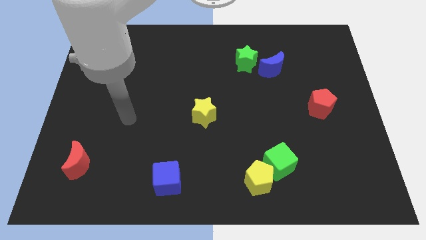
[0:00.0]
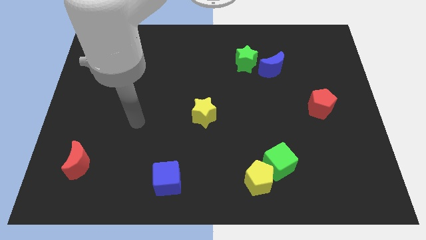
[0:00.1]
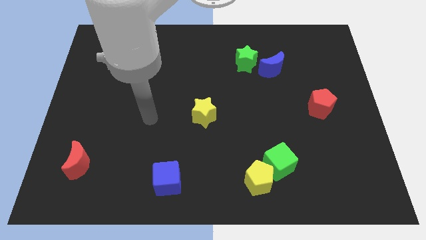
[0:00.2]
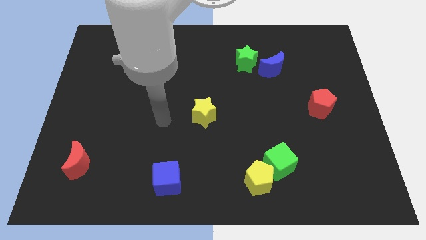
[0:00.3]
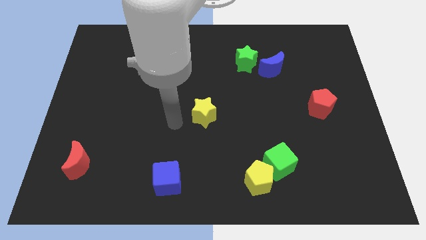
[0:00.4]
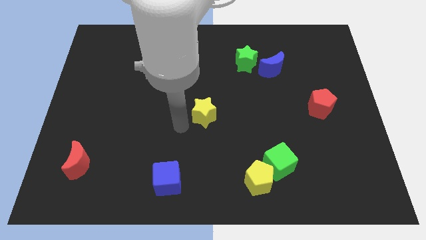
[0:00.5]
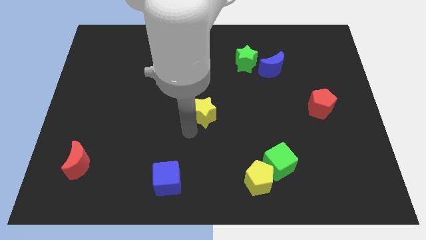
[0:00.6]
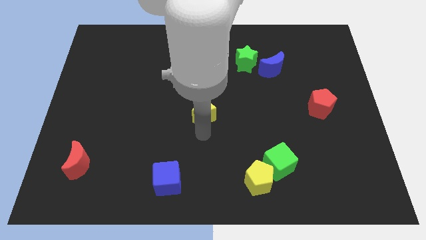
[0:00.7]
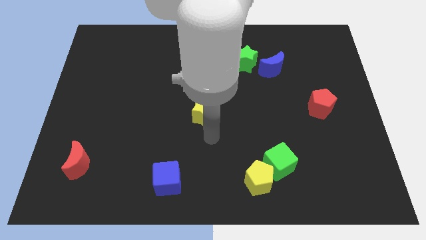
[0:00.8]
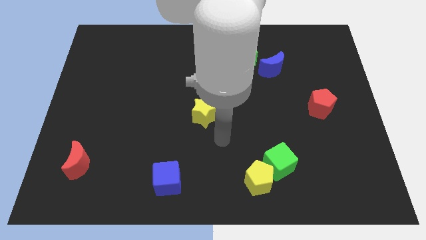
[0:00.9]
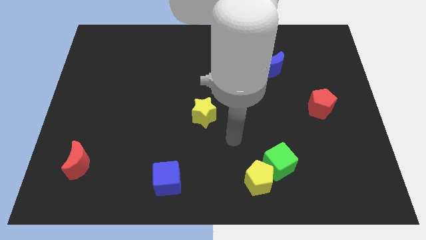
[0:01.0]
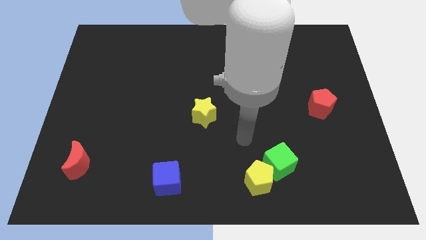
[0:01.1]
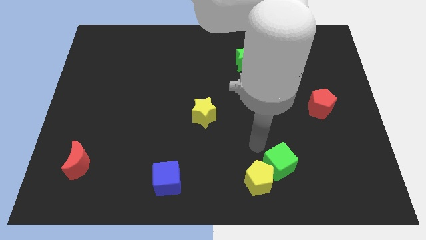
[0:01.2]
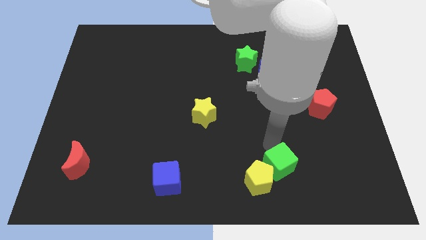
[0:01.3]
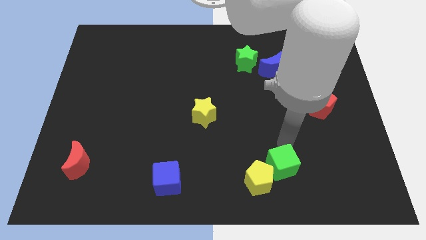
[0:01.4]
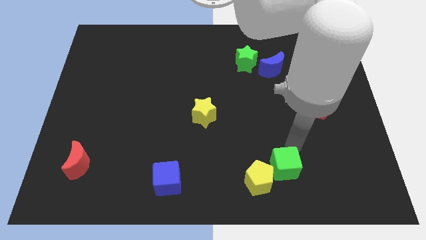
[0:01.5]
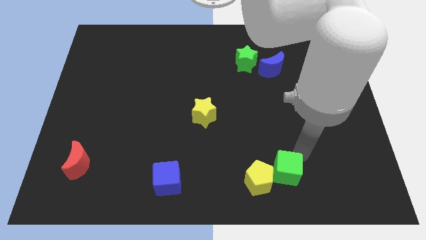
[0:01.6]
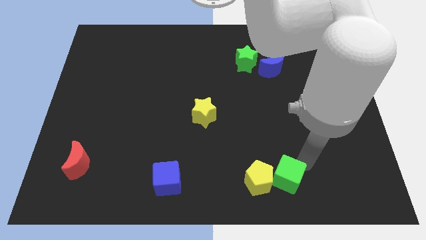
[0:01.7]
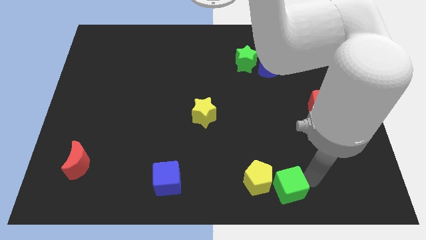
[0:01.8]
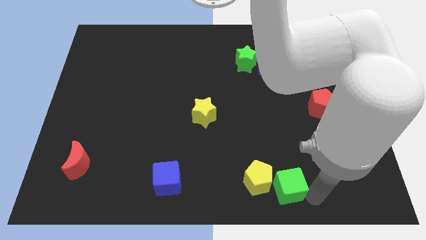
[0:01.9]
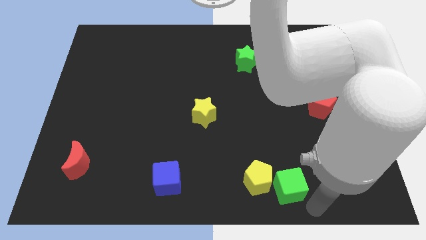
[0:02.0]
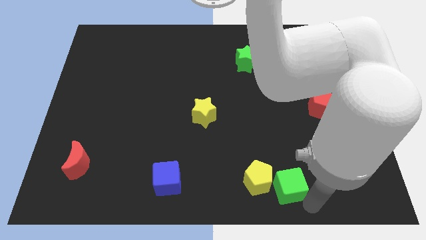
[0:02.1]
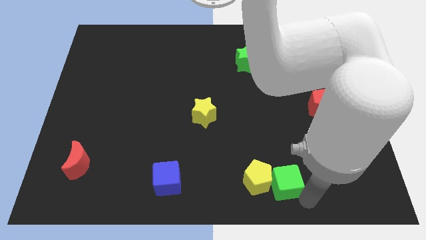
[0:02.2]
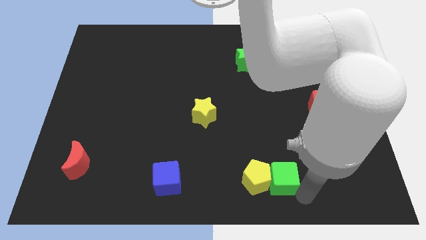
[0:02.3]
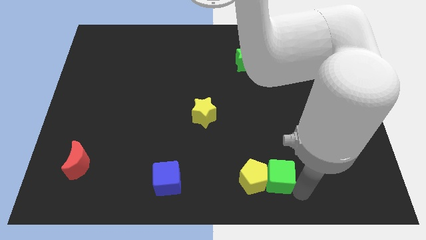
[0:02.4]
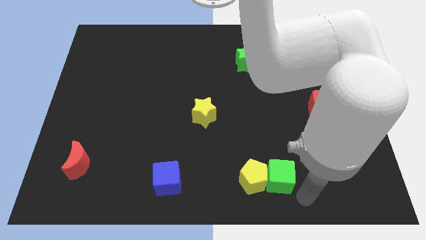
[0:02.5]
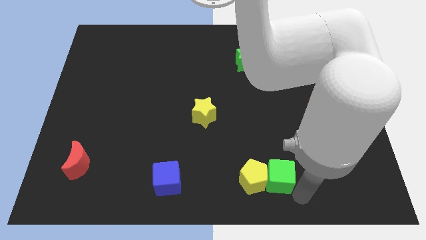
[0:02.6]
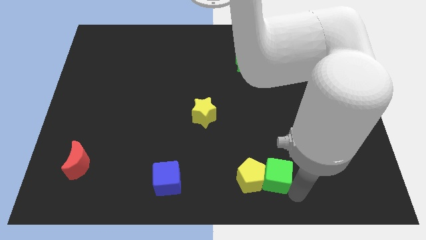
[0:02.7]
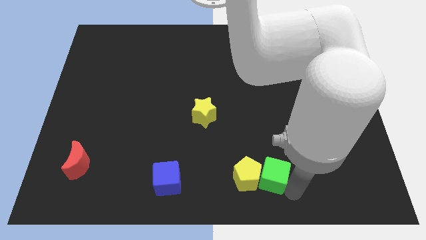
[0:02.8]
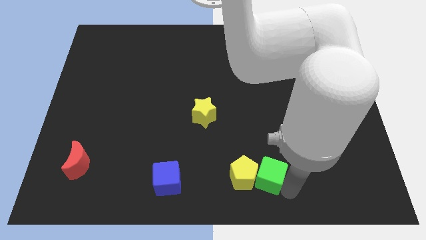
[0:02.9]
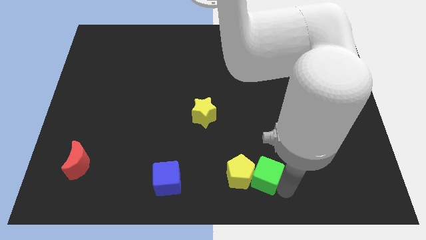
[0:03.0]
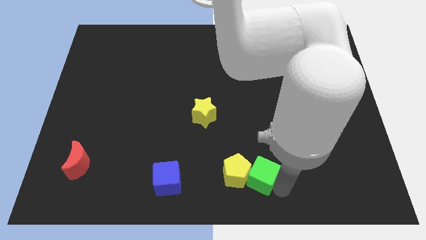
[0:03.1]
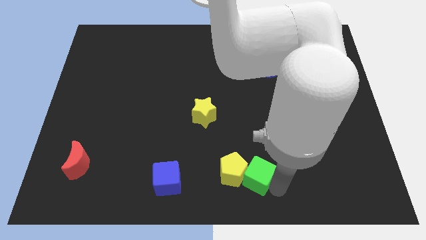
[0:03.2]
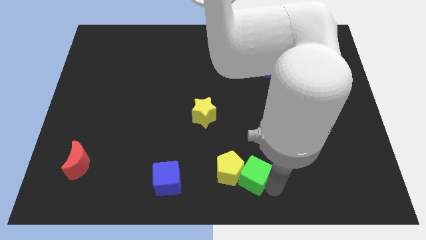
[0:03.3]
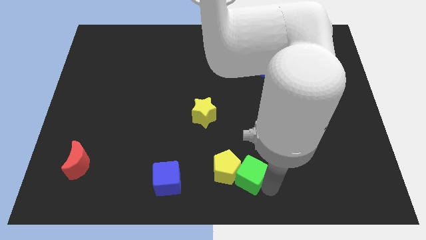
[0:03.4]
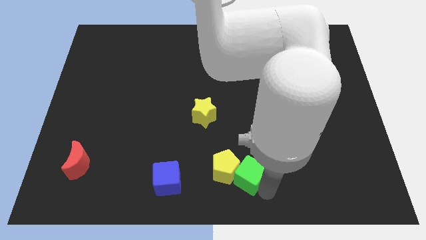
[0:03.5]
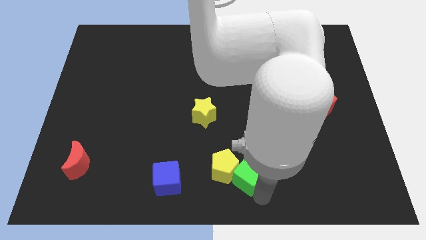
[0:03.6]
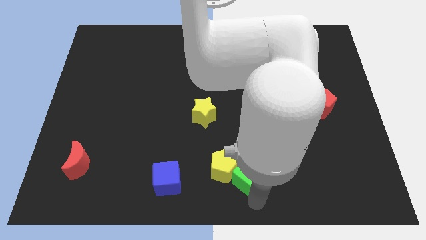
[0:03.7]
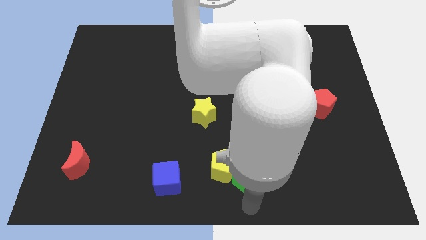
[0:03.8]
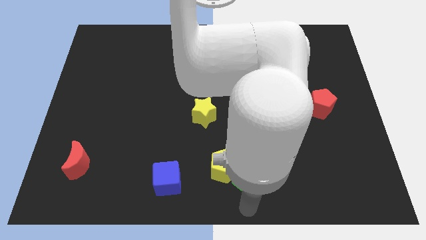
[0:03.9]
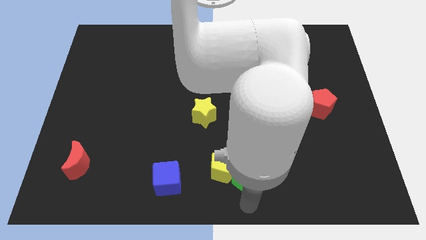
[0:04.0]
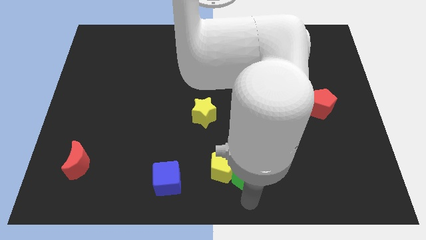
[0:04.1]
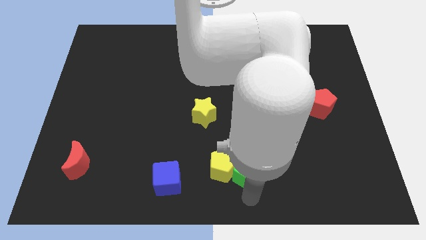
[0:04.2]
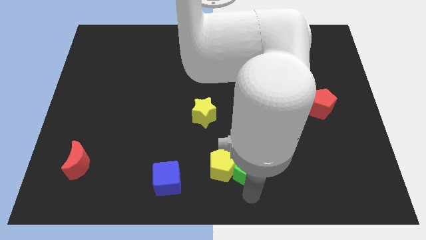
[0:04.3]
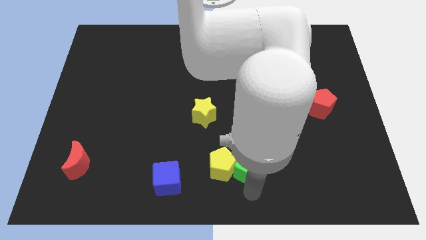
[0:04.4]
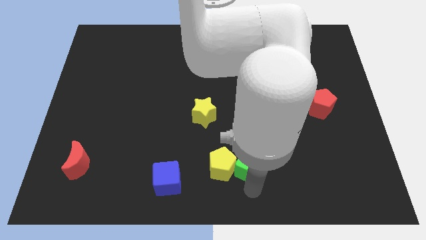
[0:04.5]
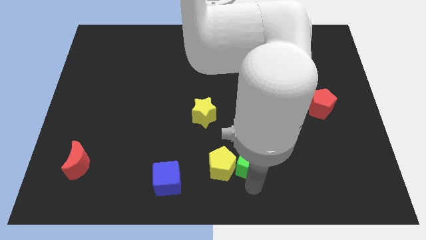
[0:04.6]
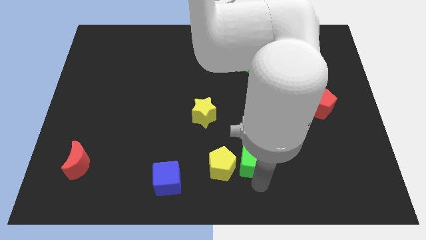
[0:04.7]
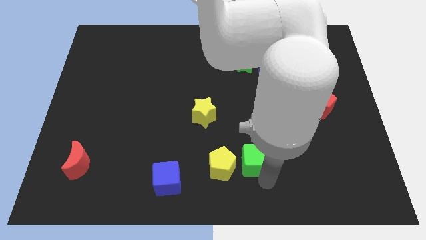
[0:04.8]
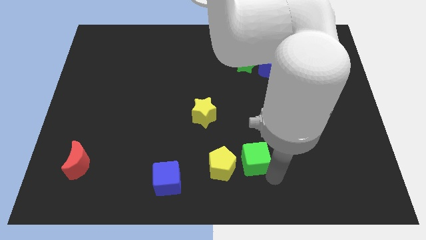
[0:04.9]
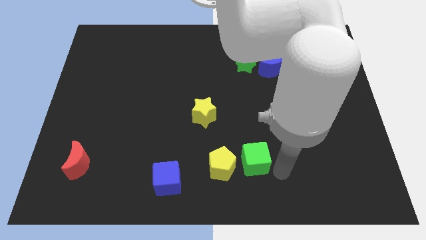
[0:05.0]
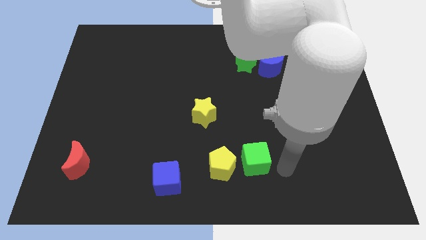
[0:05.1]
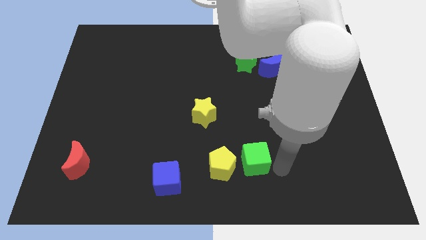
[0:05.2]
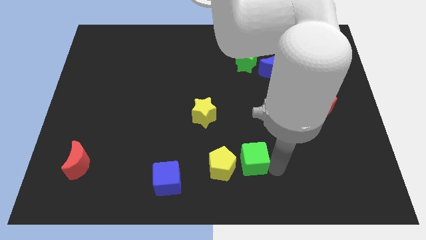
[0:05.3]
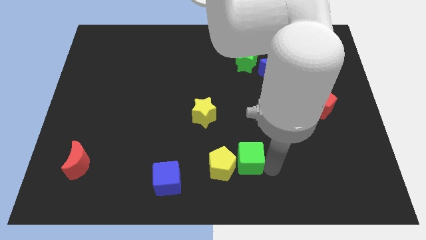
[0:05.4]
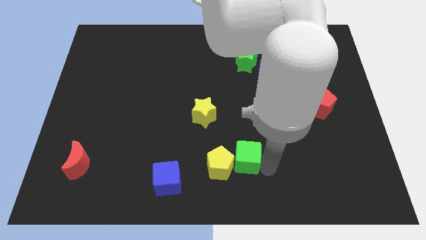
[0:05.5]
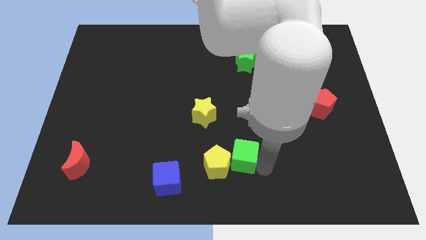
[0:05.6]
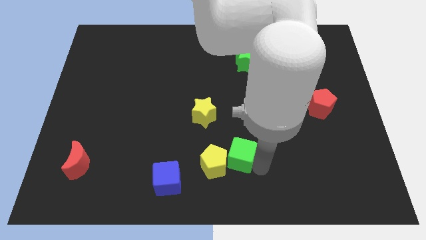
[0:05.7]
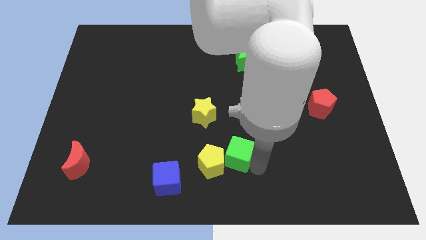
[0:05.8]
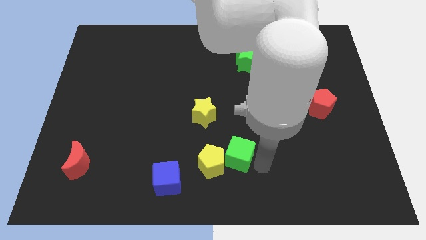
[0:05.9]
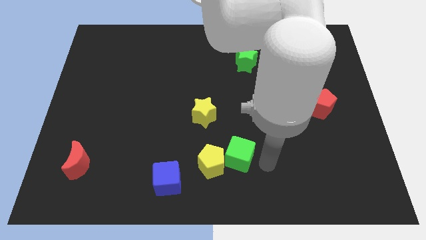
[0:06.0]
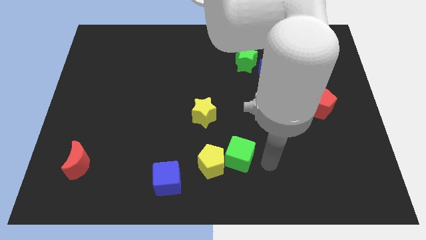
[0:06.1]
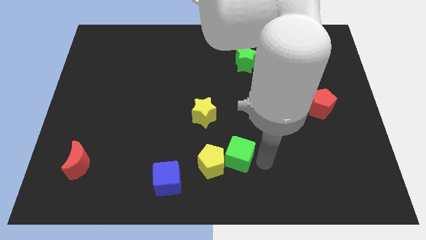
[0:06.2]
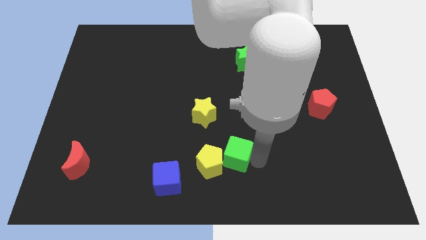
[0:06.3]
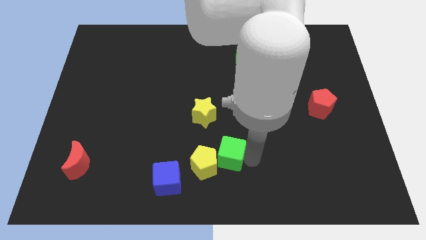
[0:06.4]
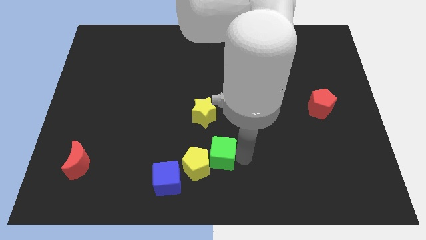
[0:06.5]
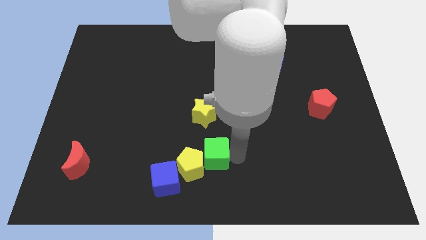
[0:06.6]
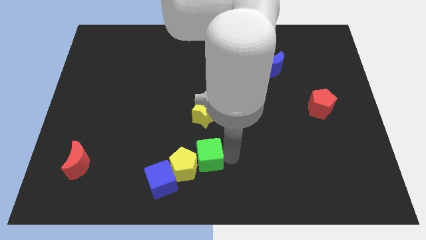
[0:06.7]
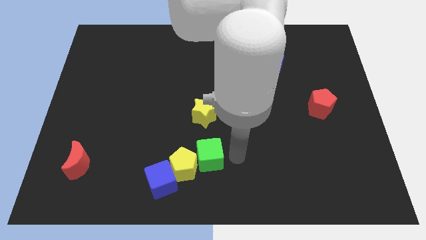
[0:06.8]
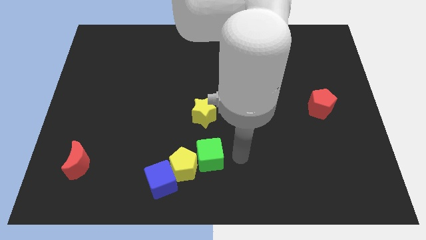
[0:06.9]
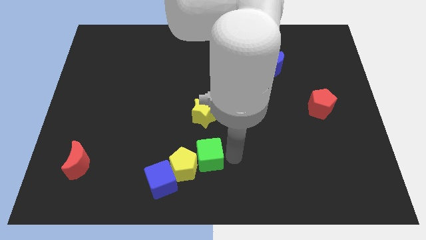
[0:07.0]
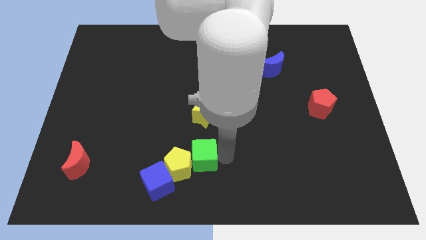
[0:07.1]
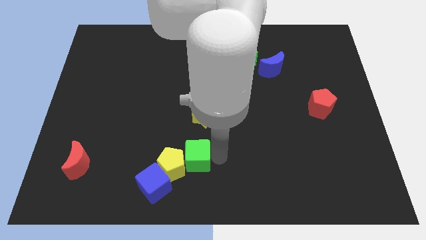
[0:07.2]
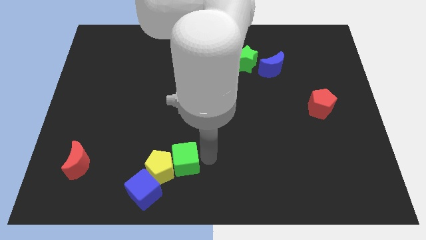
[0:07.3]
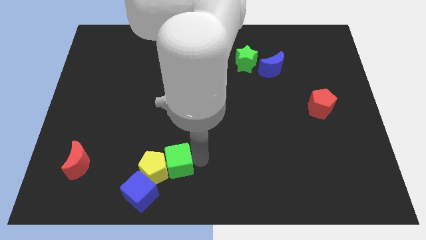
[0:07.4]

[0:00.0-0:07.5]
slide the green cube left

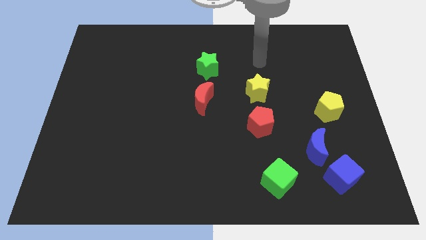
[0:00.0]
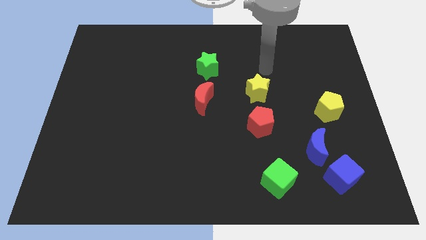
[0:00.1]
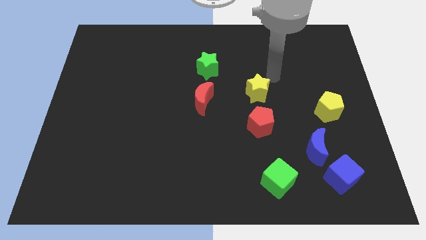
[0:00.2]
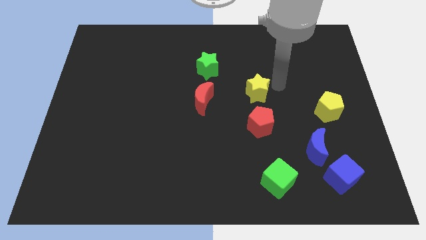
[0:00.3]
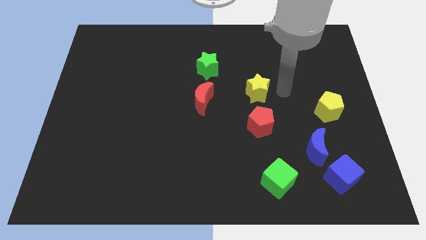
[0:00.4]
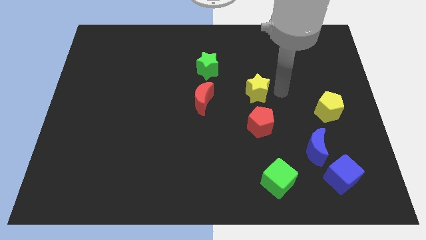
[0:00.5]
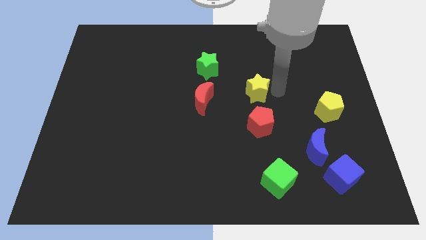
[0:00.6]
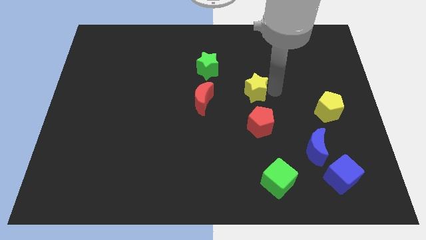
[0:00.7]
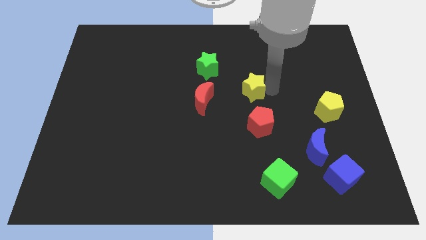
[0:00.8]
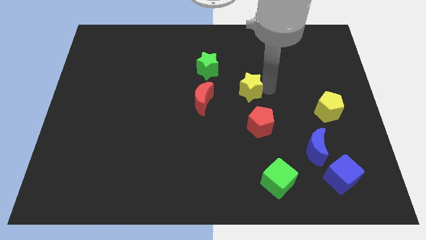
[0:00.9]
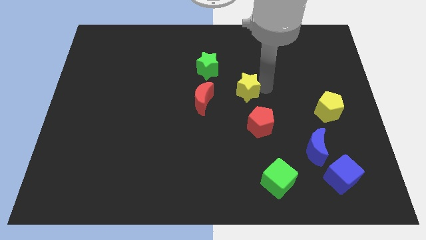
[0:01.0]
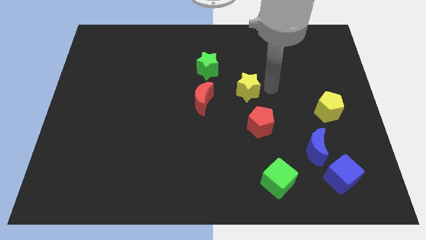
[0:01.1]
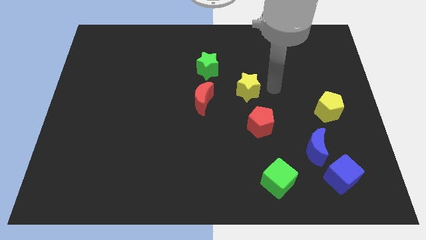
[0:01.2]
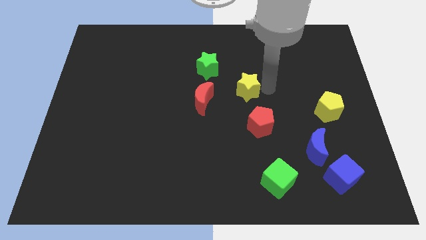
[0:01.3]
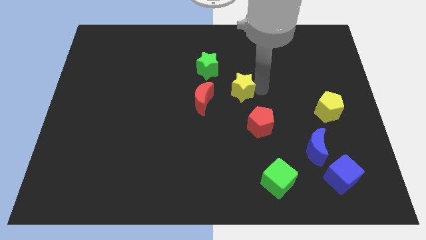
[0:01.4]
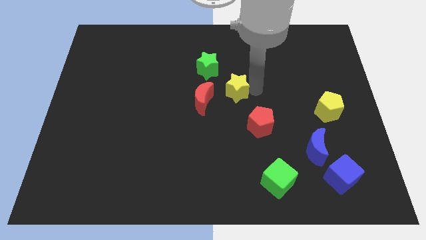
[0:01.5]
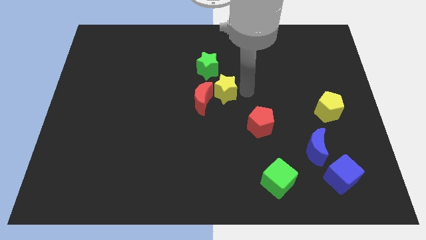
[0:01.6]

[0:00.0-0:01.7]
move the yellow star left a little
